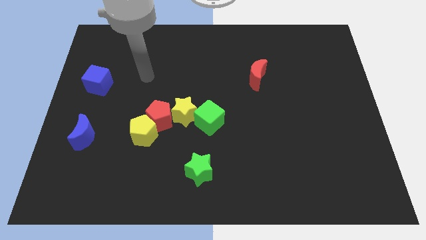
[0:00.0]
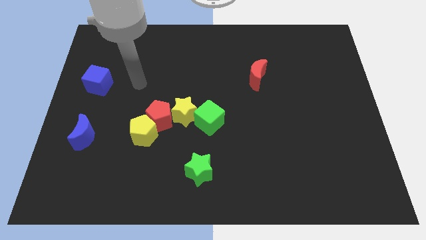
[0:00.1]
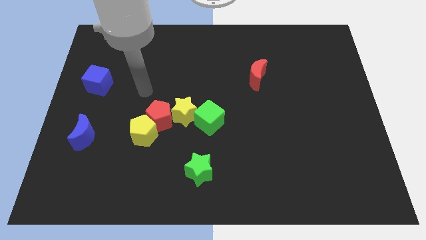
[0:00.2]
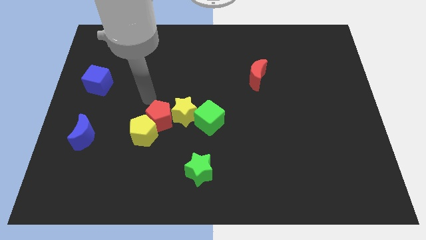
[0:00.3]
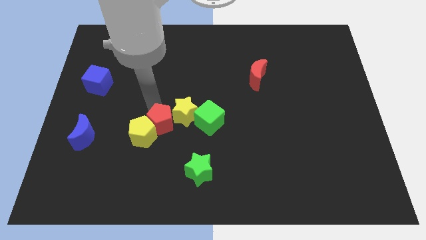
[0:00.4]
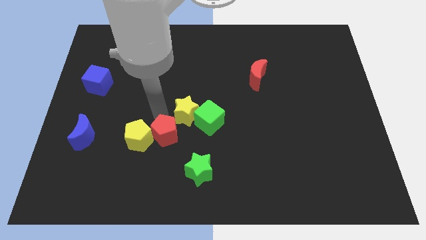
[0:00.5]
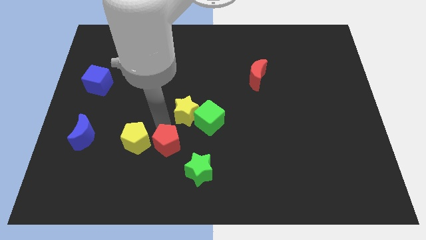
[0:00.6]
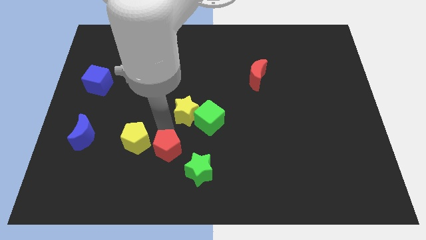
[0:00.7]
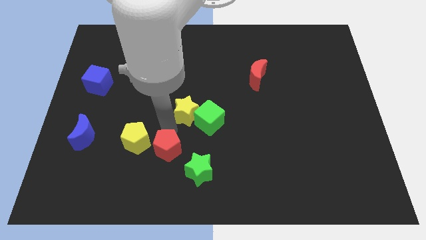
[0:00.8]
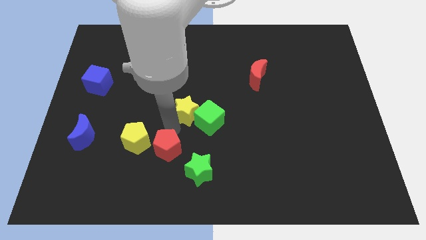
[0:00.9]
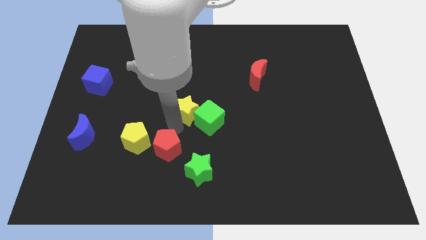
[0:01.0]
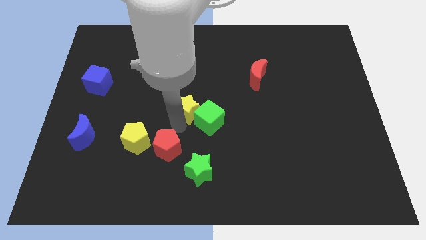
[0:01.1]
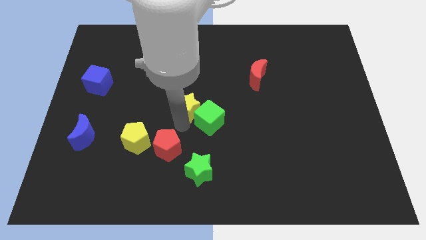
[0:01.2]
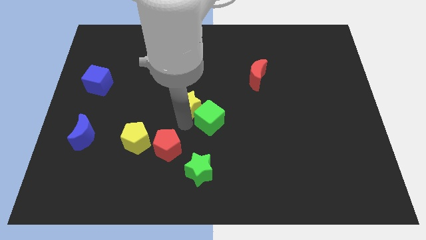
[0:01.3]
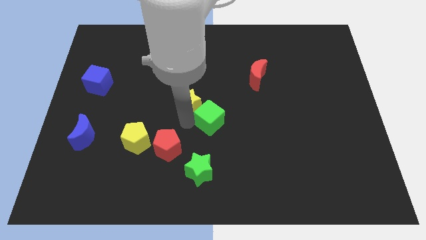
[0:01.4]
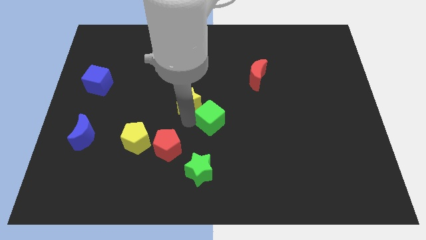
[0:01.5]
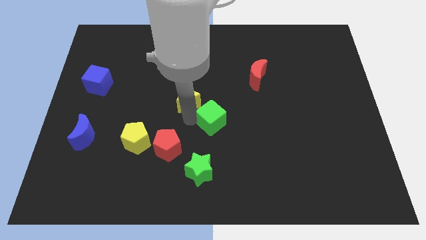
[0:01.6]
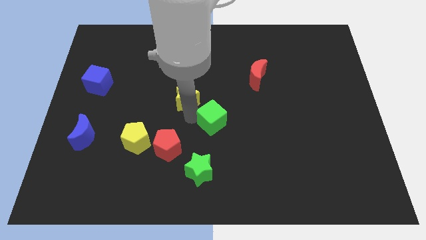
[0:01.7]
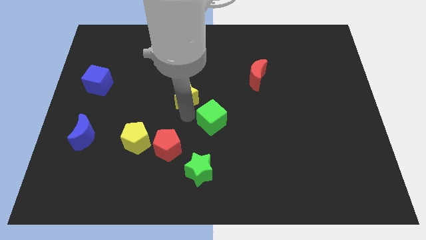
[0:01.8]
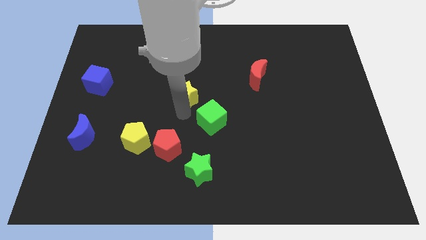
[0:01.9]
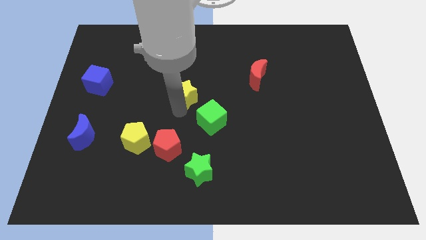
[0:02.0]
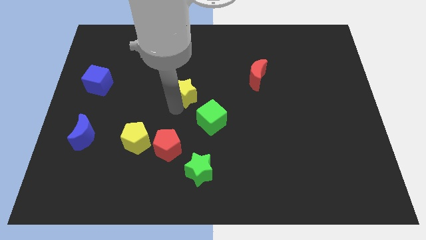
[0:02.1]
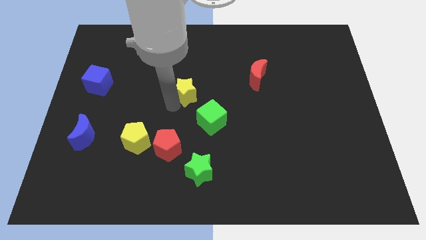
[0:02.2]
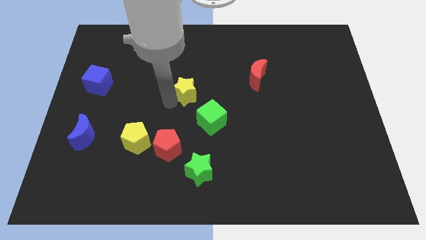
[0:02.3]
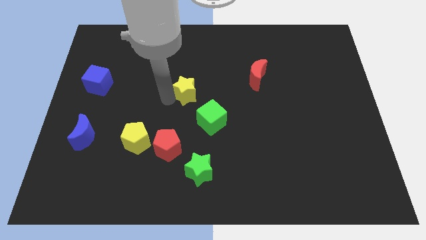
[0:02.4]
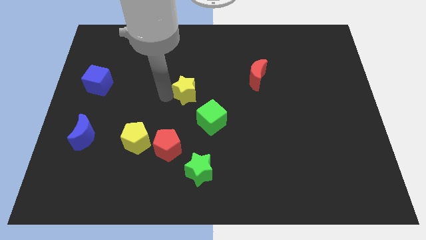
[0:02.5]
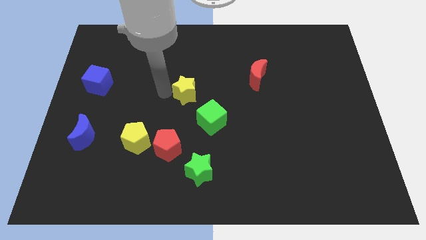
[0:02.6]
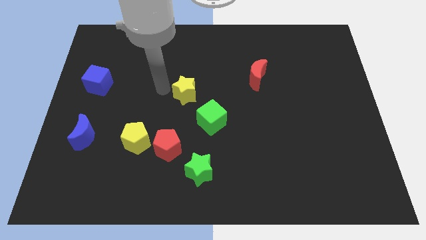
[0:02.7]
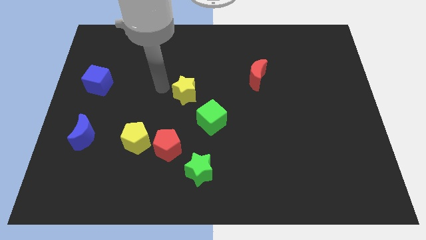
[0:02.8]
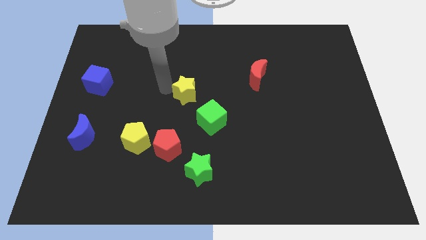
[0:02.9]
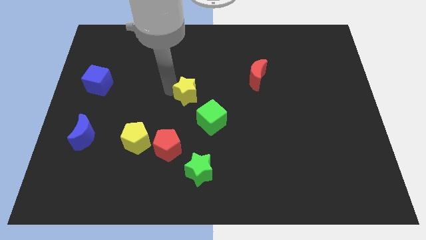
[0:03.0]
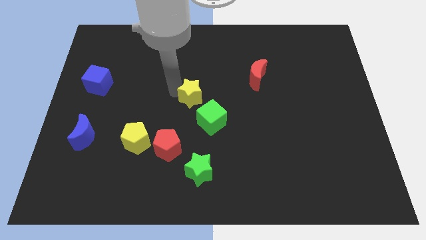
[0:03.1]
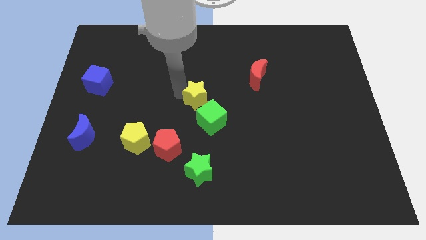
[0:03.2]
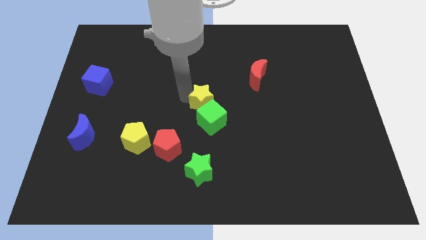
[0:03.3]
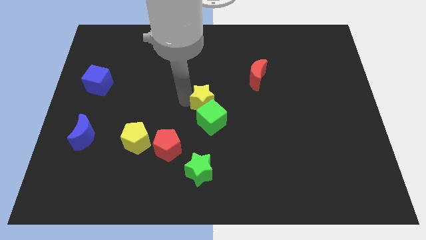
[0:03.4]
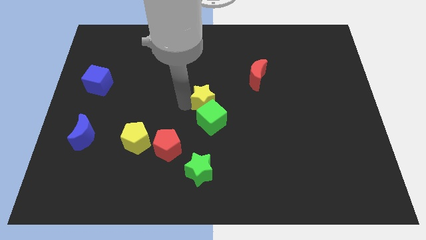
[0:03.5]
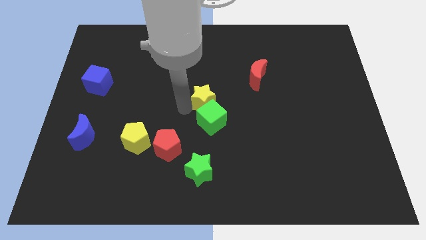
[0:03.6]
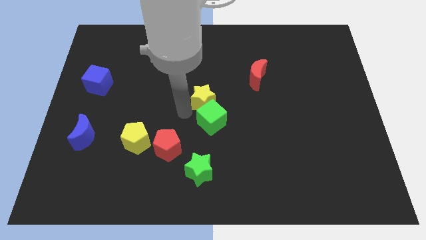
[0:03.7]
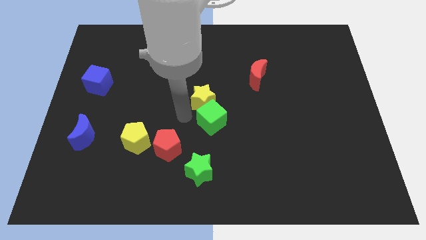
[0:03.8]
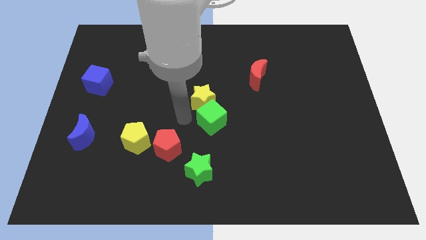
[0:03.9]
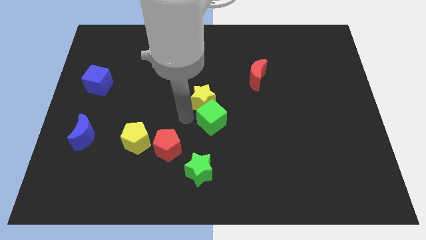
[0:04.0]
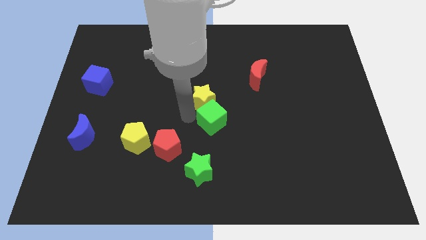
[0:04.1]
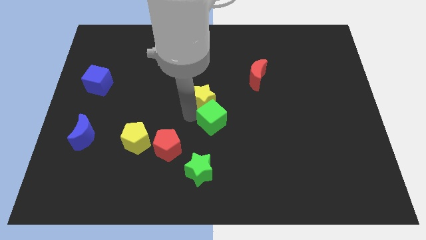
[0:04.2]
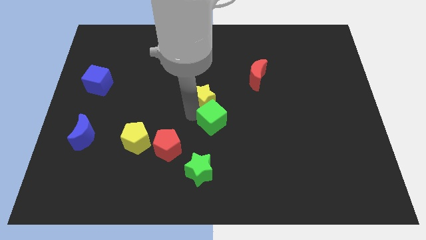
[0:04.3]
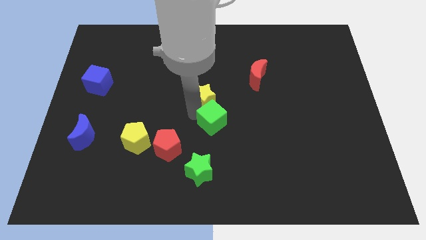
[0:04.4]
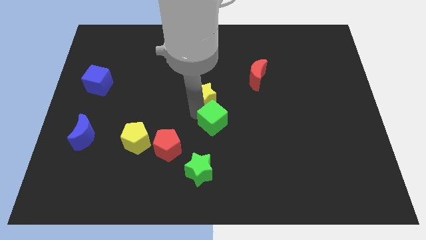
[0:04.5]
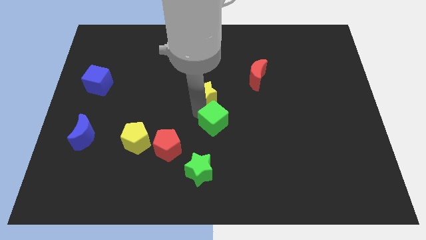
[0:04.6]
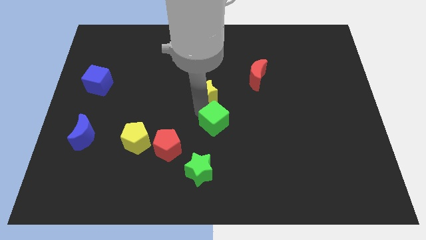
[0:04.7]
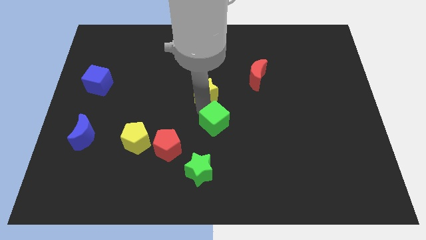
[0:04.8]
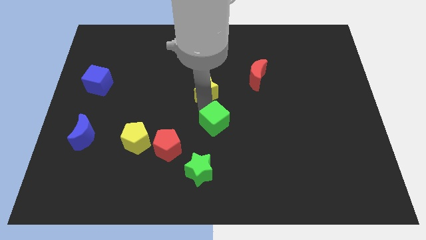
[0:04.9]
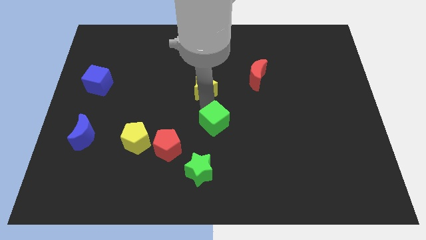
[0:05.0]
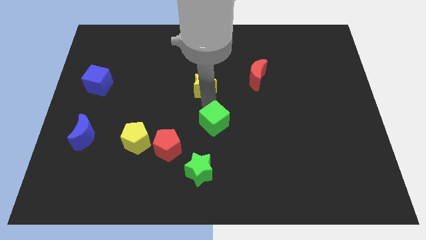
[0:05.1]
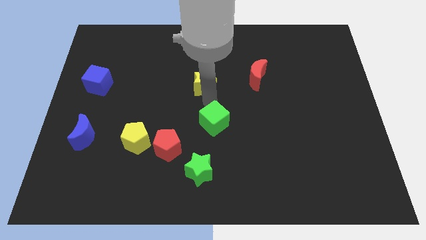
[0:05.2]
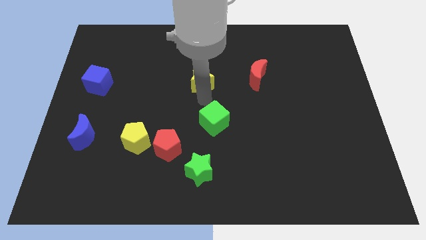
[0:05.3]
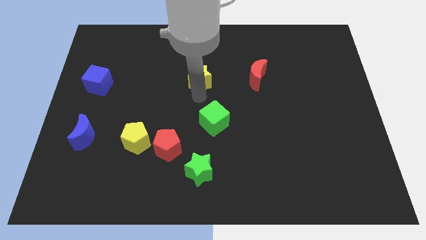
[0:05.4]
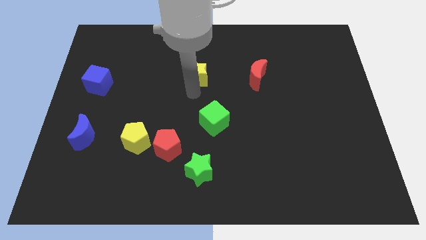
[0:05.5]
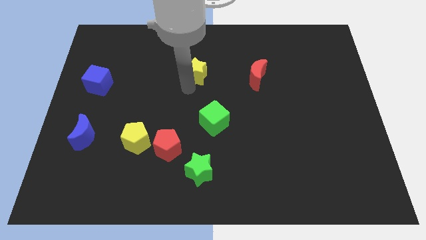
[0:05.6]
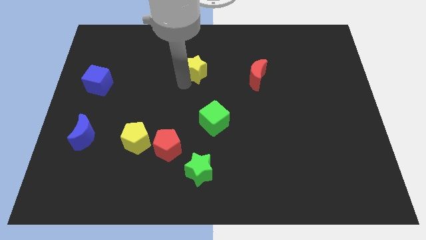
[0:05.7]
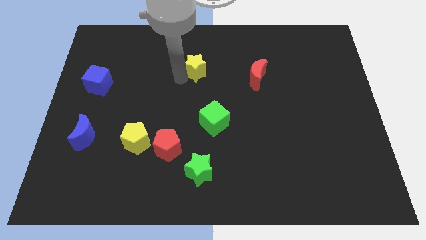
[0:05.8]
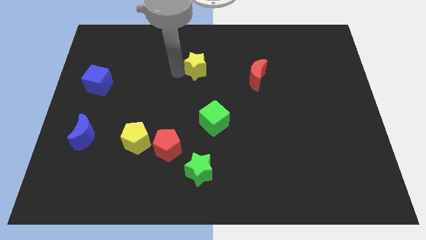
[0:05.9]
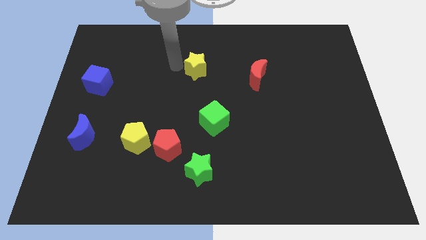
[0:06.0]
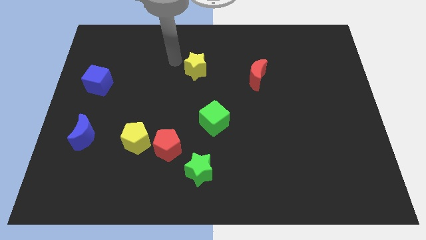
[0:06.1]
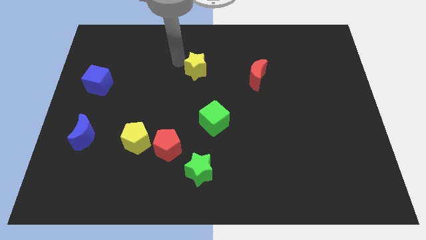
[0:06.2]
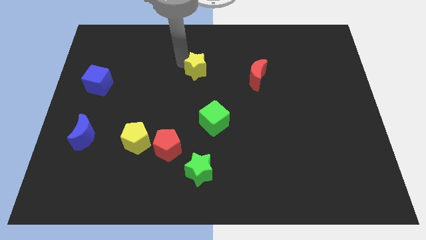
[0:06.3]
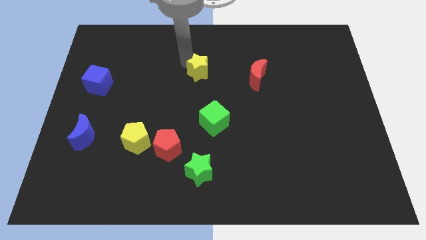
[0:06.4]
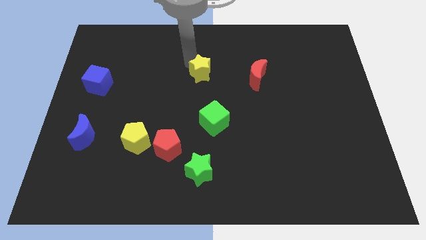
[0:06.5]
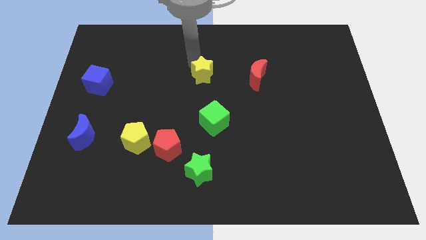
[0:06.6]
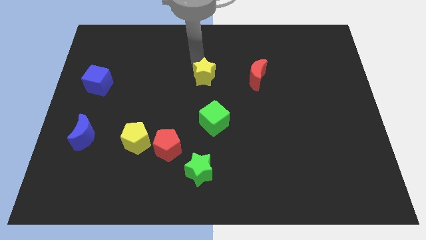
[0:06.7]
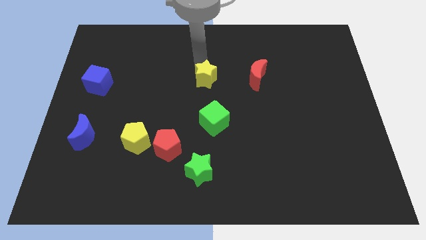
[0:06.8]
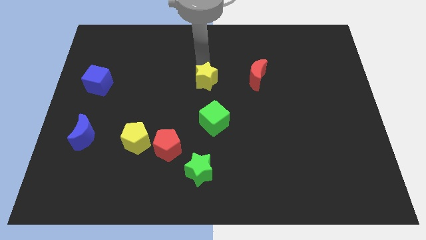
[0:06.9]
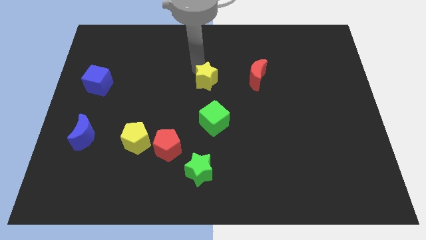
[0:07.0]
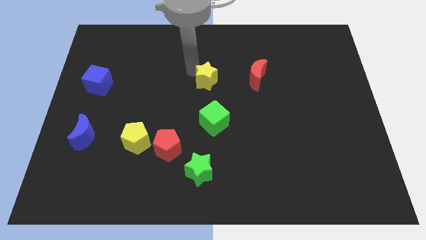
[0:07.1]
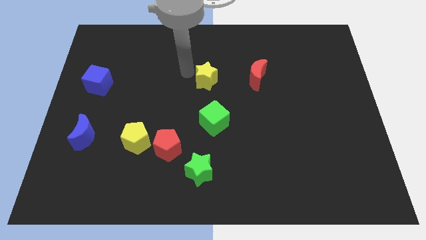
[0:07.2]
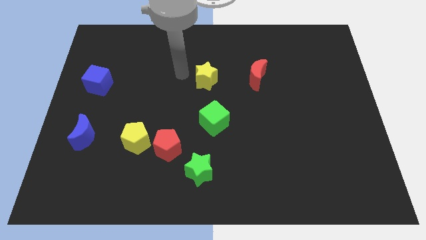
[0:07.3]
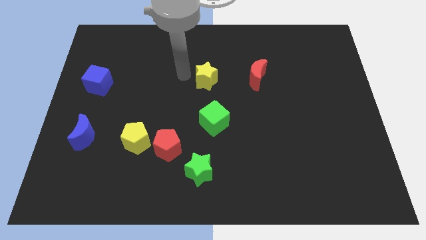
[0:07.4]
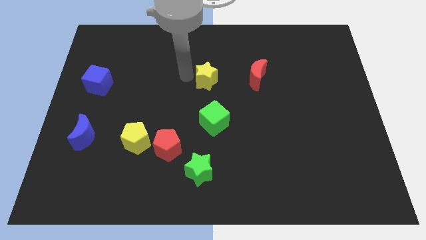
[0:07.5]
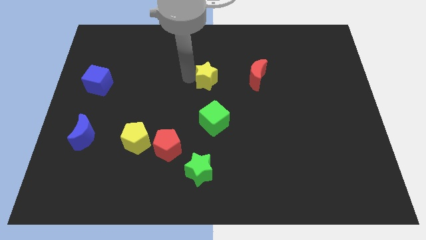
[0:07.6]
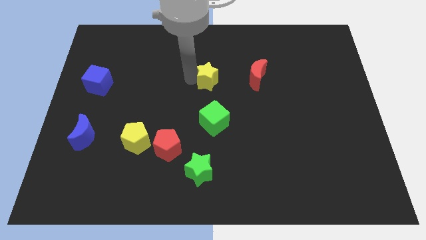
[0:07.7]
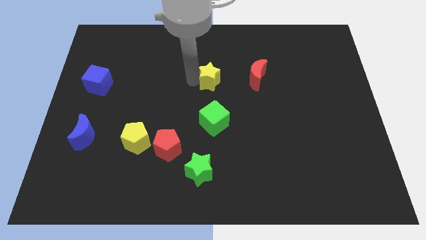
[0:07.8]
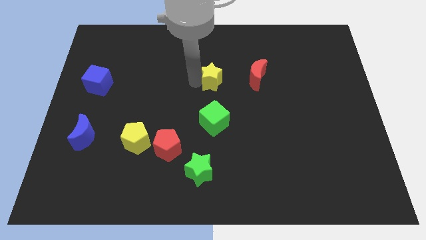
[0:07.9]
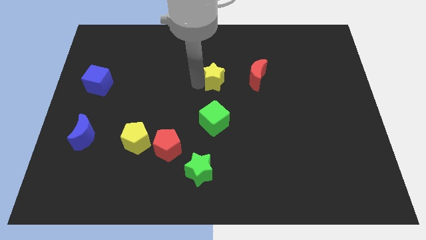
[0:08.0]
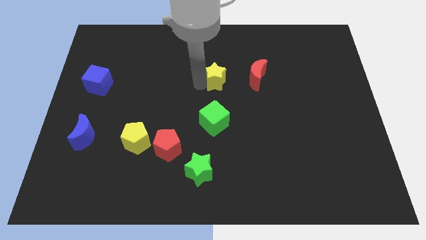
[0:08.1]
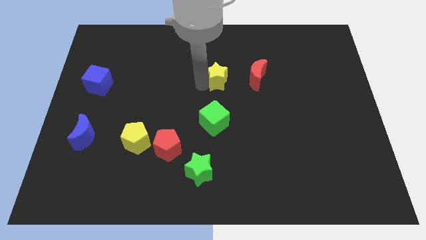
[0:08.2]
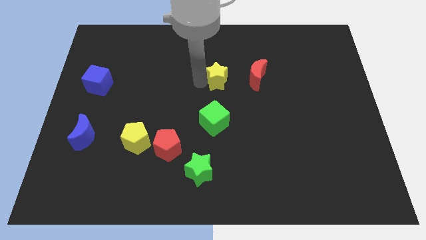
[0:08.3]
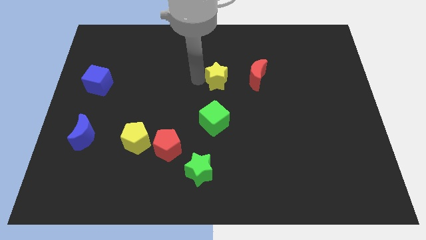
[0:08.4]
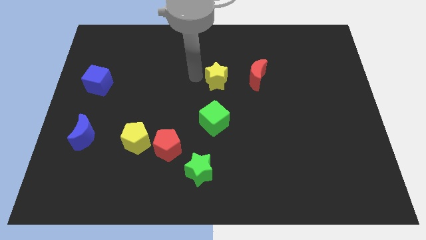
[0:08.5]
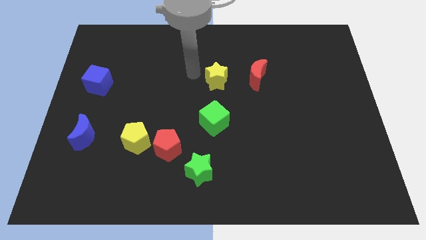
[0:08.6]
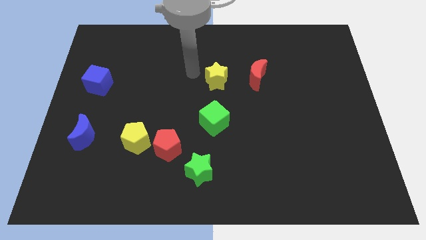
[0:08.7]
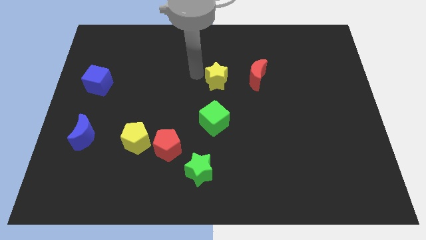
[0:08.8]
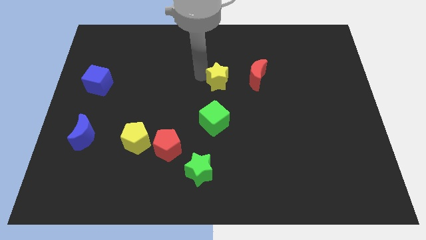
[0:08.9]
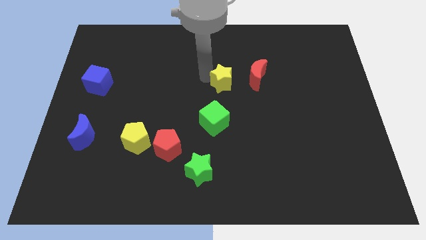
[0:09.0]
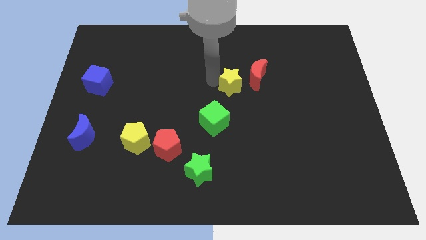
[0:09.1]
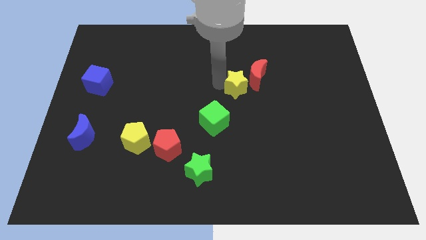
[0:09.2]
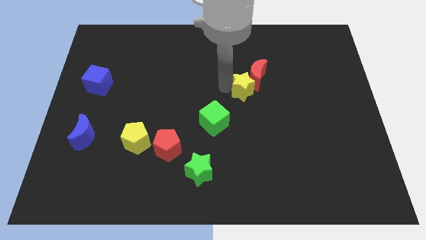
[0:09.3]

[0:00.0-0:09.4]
put the yellow star towards the red moon
